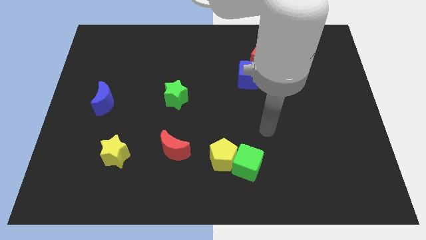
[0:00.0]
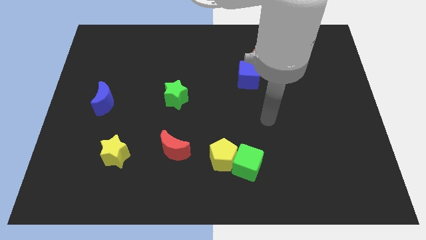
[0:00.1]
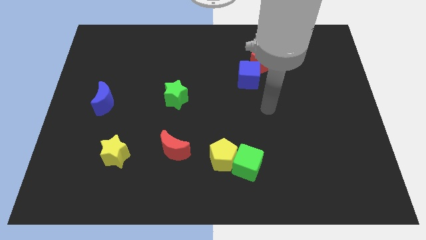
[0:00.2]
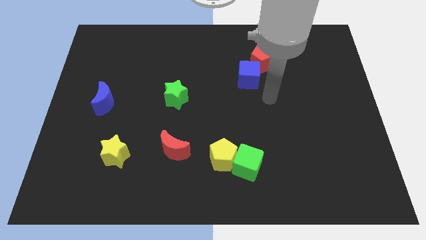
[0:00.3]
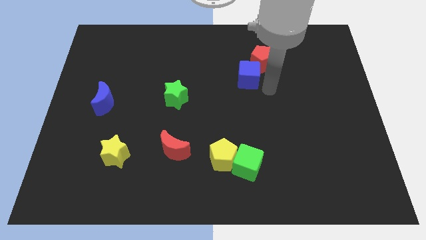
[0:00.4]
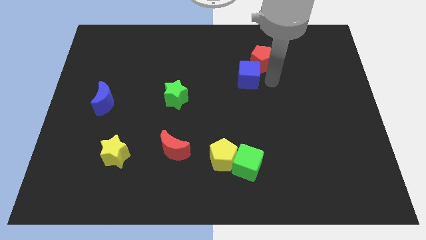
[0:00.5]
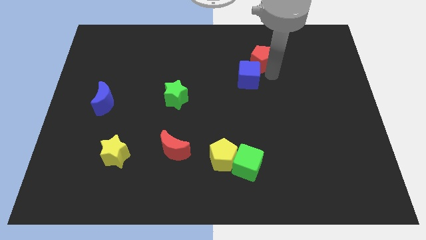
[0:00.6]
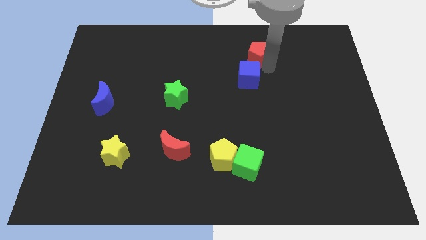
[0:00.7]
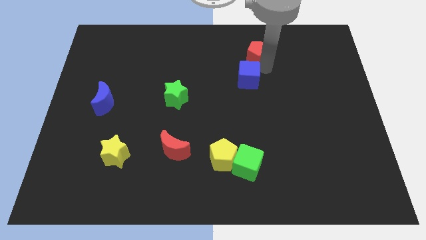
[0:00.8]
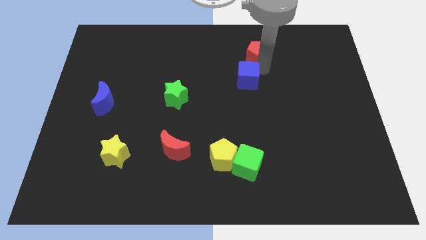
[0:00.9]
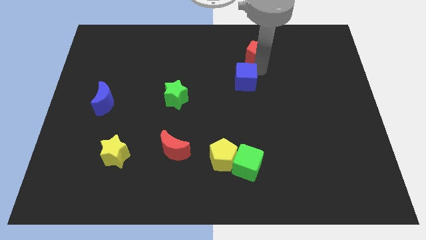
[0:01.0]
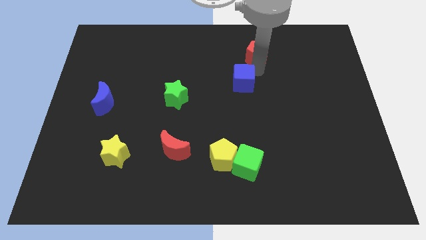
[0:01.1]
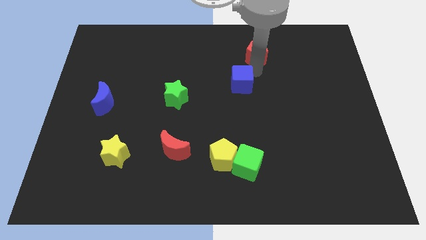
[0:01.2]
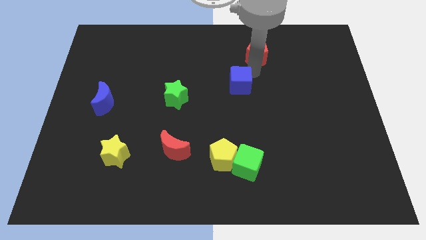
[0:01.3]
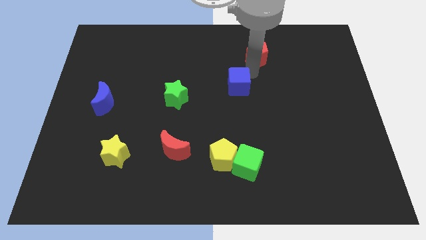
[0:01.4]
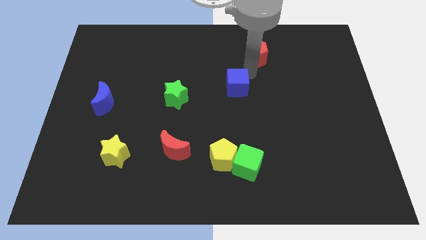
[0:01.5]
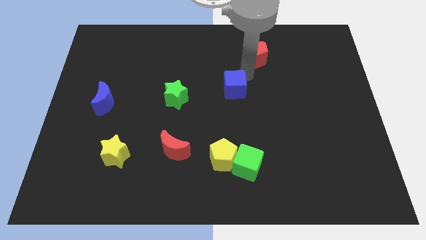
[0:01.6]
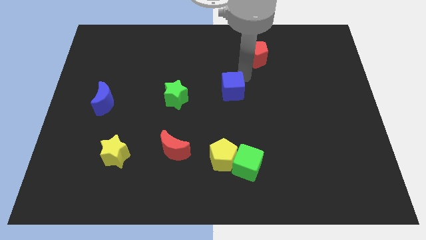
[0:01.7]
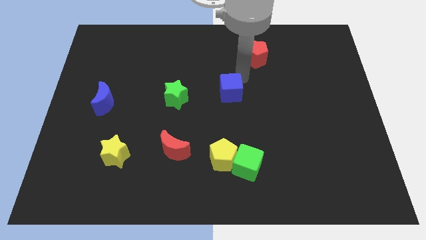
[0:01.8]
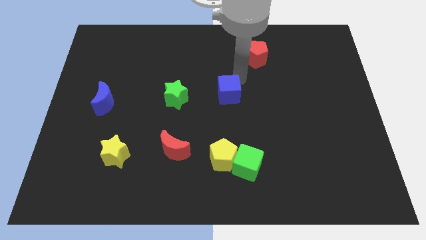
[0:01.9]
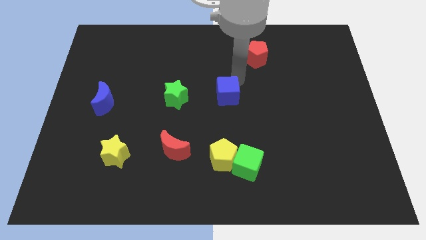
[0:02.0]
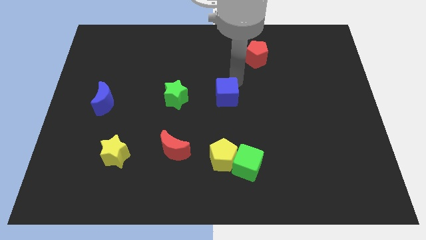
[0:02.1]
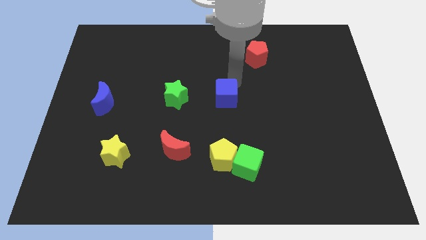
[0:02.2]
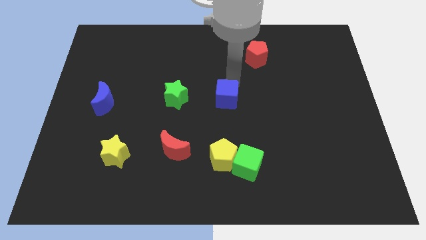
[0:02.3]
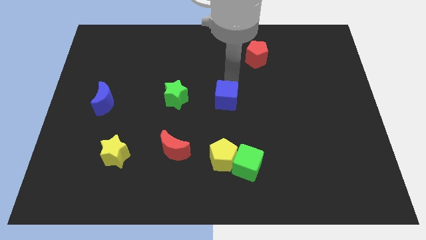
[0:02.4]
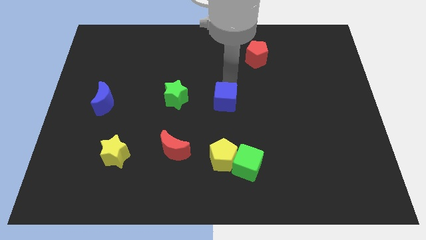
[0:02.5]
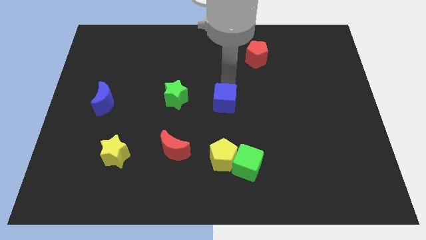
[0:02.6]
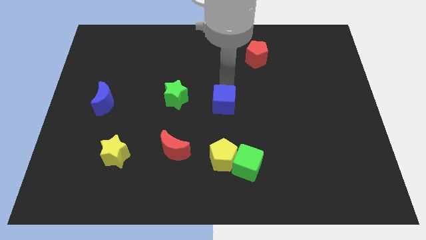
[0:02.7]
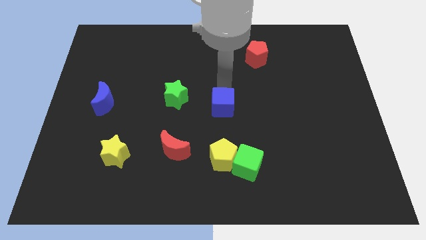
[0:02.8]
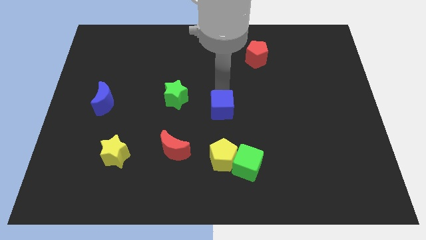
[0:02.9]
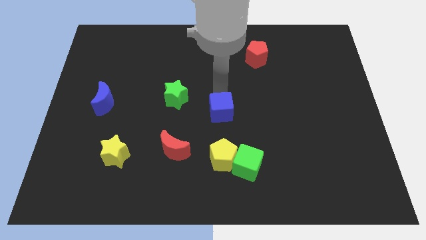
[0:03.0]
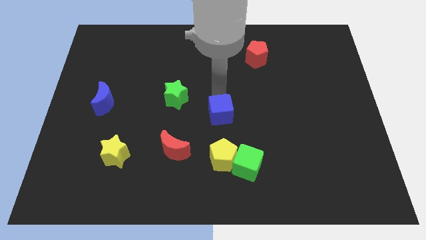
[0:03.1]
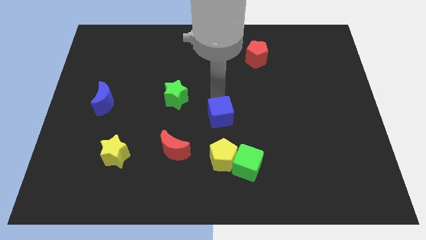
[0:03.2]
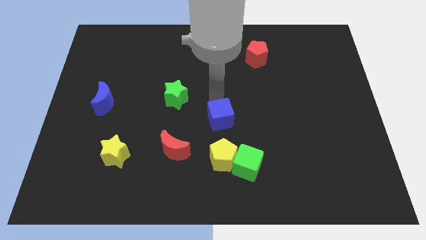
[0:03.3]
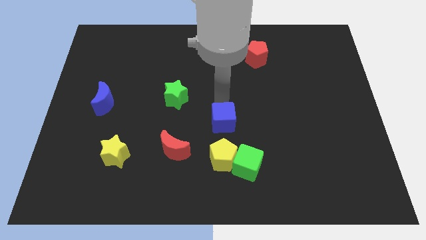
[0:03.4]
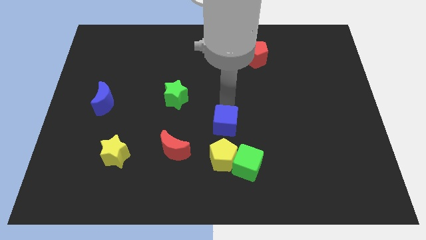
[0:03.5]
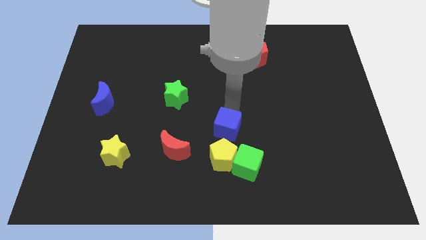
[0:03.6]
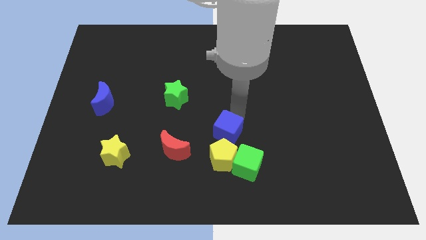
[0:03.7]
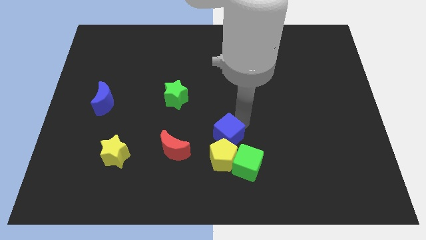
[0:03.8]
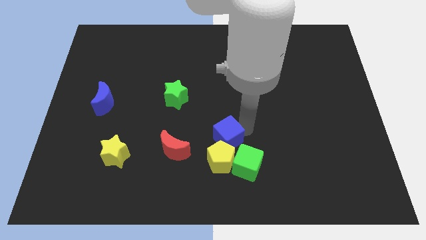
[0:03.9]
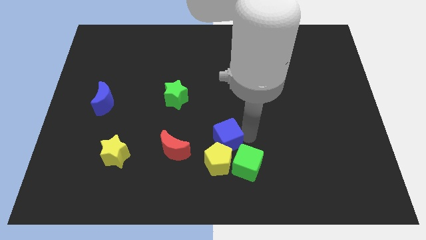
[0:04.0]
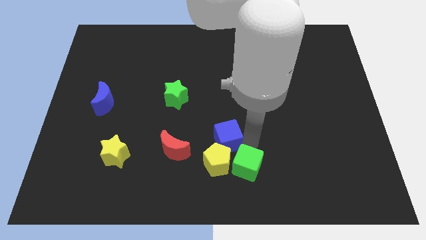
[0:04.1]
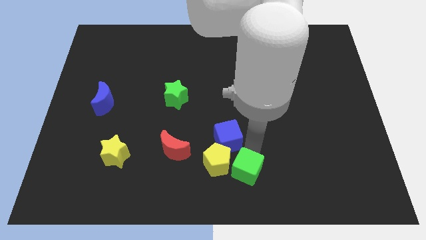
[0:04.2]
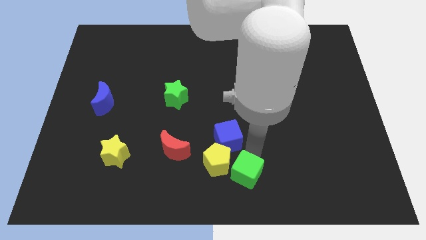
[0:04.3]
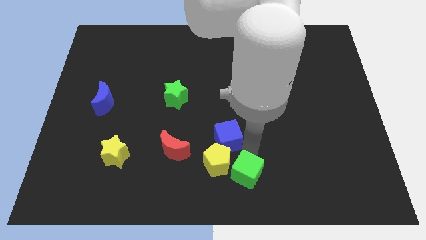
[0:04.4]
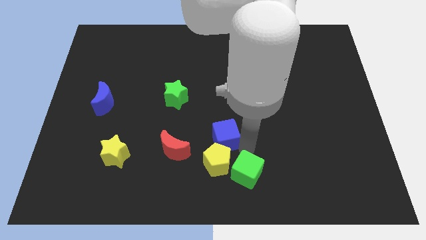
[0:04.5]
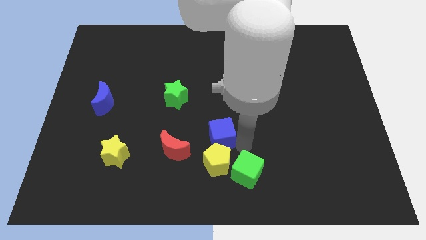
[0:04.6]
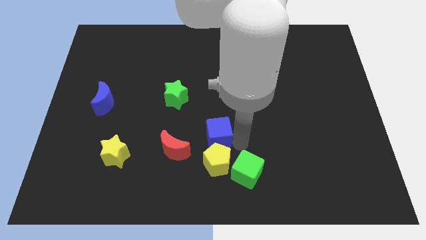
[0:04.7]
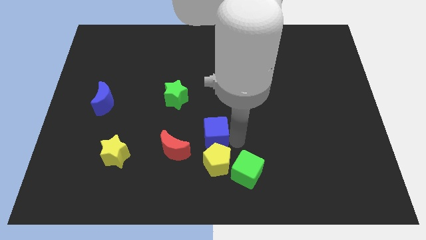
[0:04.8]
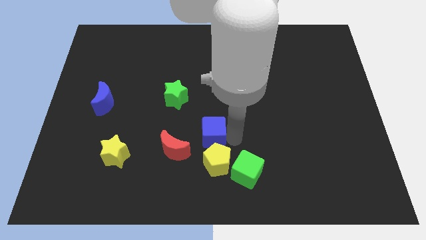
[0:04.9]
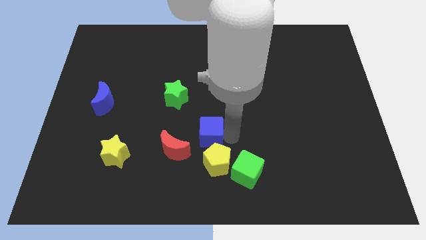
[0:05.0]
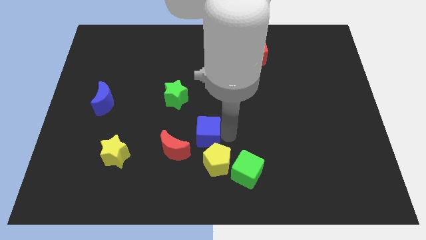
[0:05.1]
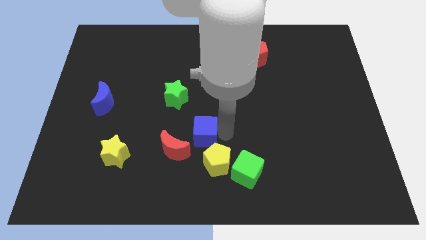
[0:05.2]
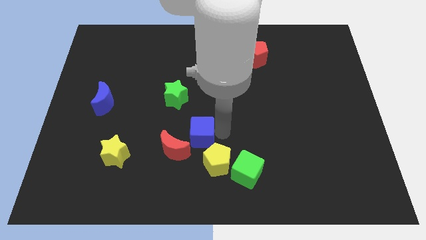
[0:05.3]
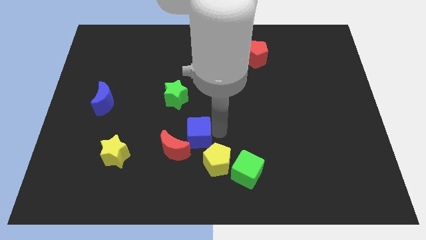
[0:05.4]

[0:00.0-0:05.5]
move the blue cube diagonally down and left

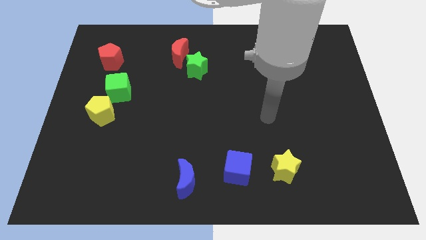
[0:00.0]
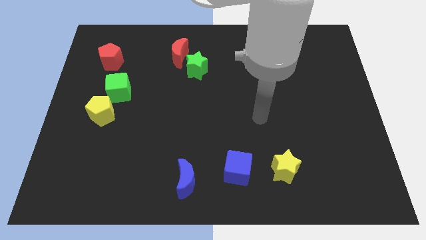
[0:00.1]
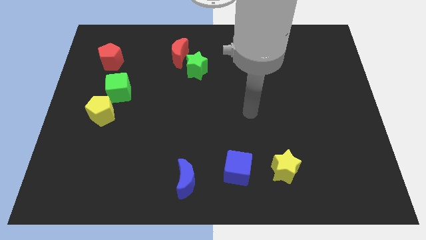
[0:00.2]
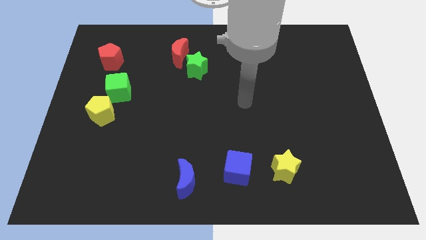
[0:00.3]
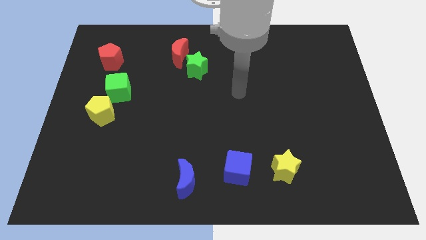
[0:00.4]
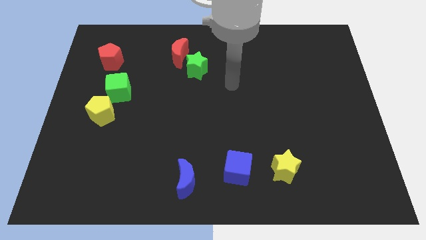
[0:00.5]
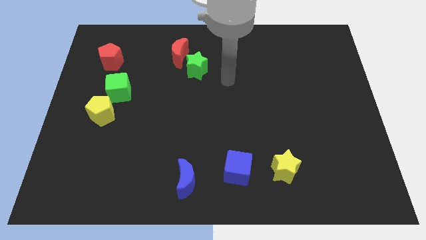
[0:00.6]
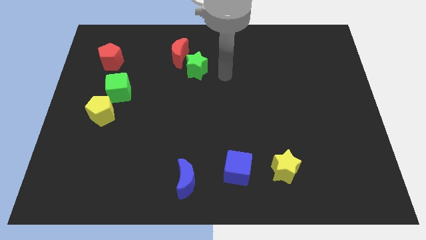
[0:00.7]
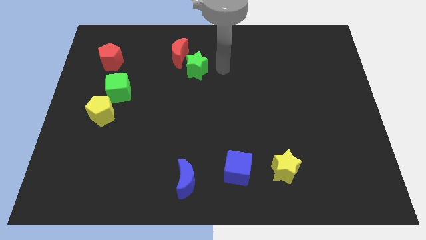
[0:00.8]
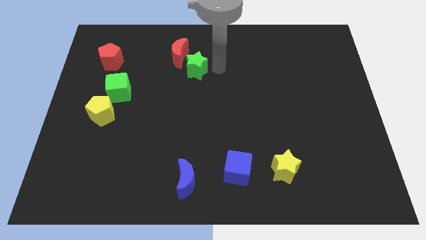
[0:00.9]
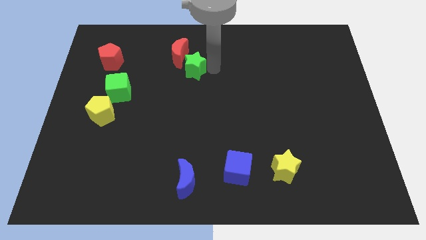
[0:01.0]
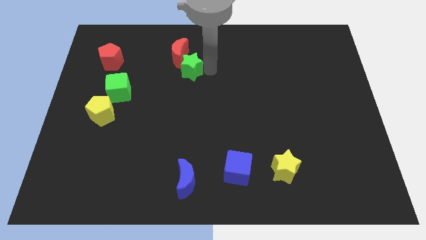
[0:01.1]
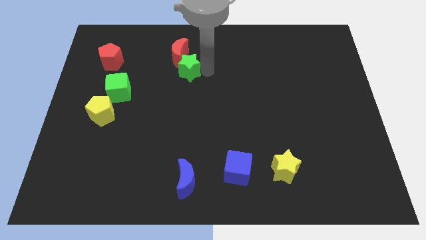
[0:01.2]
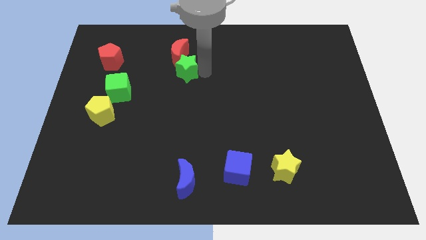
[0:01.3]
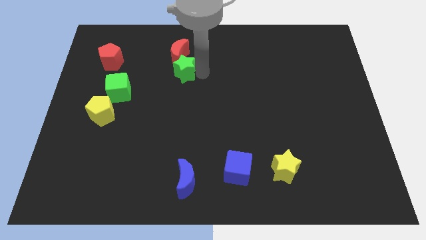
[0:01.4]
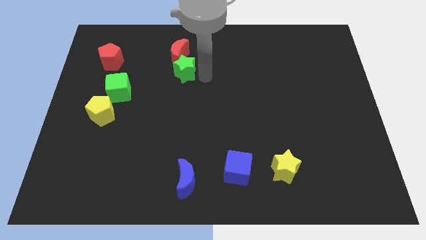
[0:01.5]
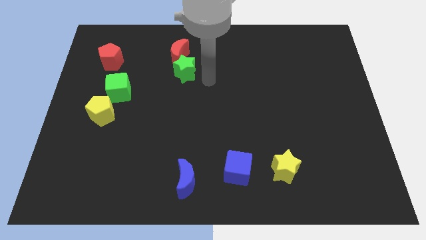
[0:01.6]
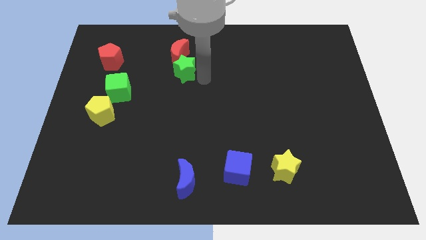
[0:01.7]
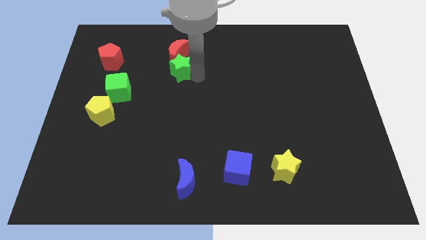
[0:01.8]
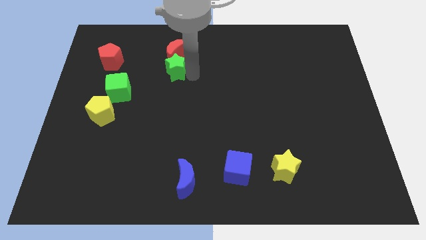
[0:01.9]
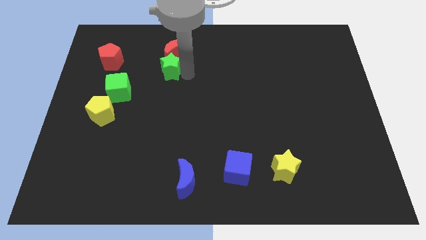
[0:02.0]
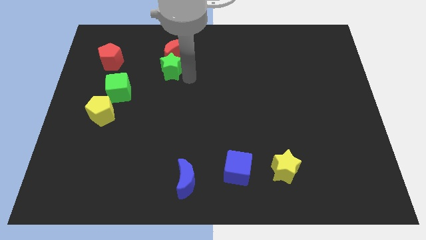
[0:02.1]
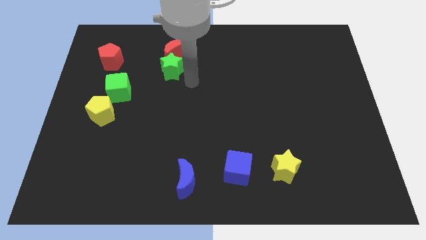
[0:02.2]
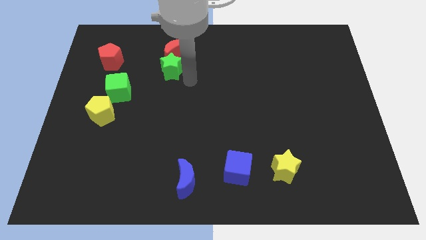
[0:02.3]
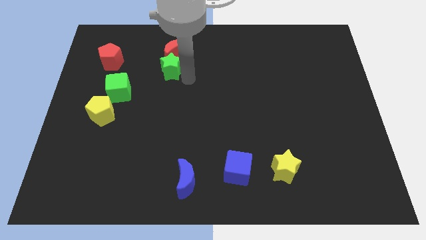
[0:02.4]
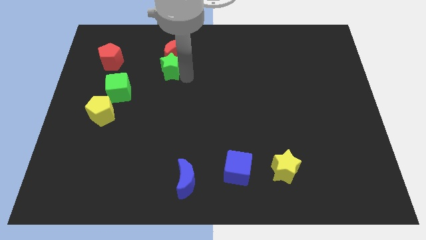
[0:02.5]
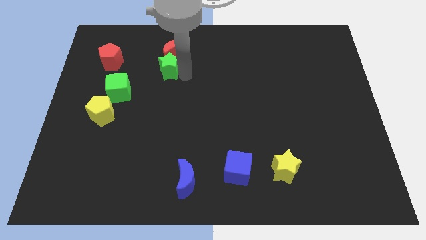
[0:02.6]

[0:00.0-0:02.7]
slide the green star a bit to the left

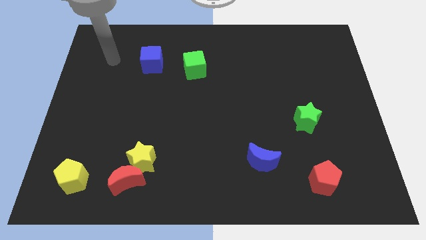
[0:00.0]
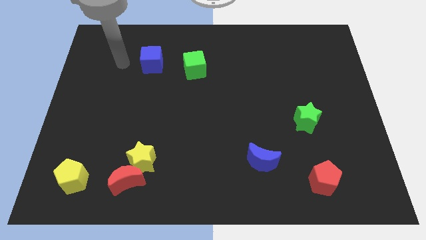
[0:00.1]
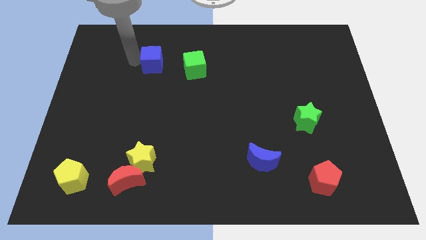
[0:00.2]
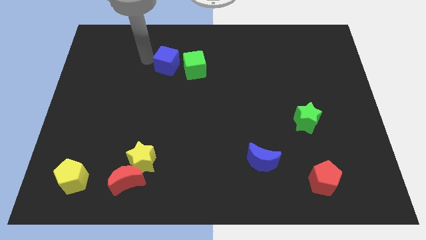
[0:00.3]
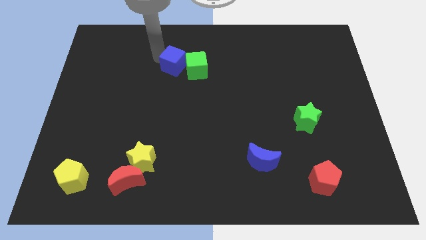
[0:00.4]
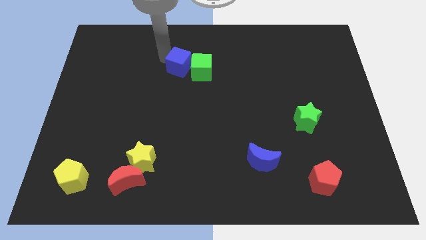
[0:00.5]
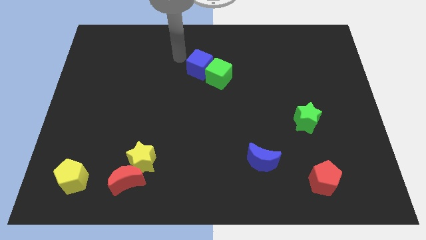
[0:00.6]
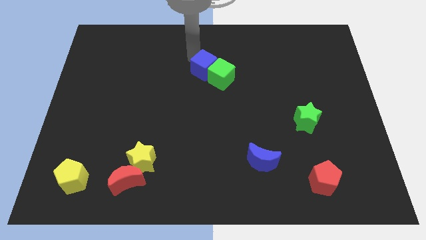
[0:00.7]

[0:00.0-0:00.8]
push the green cube down and right diagonally a bit
